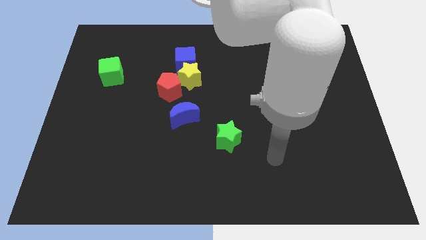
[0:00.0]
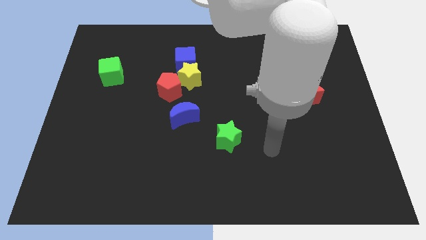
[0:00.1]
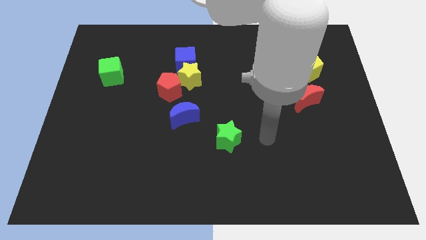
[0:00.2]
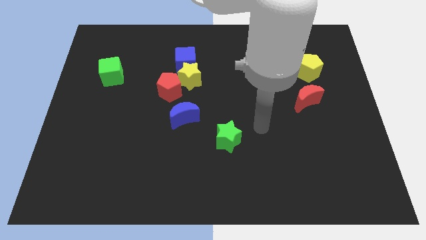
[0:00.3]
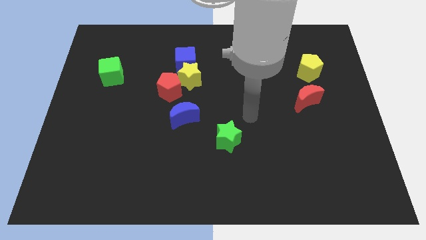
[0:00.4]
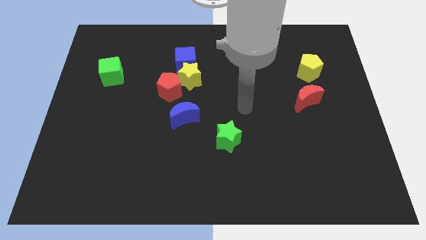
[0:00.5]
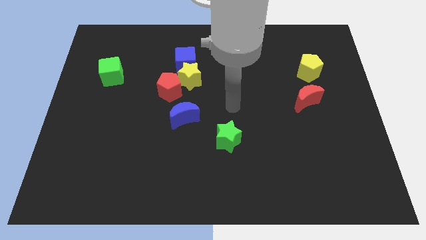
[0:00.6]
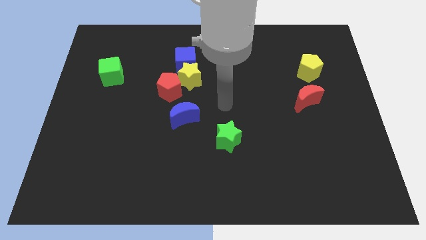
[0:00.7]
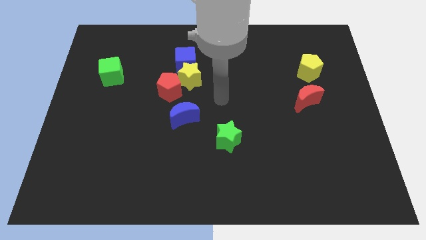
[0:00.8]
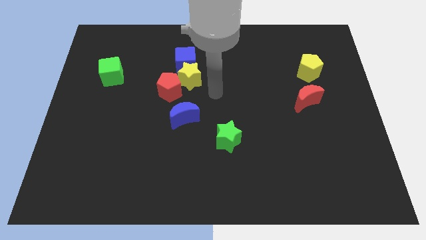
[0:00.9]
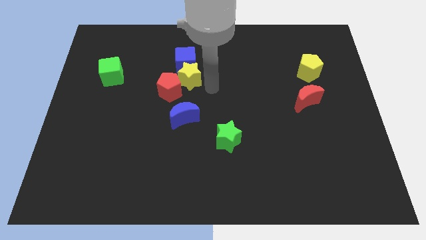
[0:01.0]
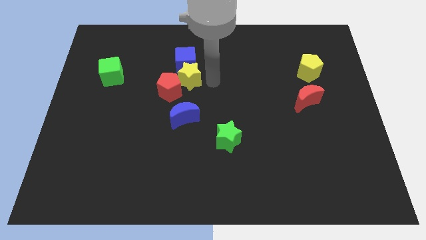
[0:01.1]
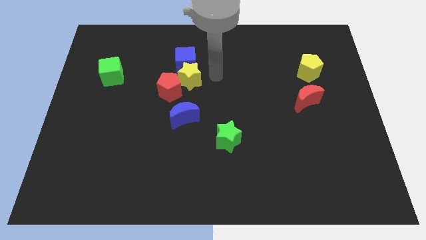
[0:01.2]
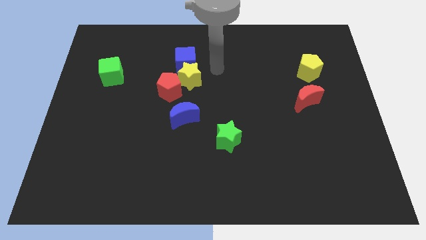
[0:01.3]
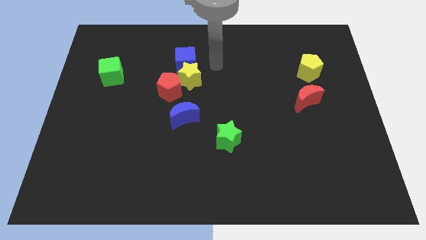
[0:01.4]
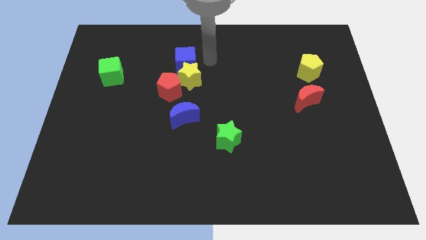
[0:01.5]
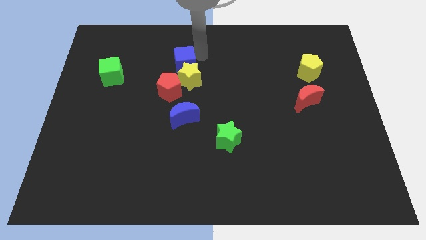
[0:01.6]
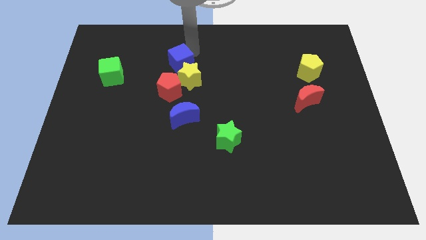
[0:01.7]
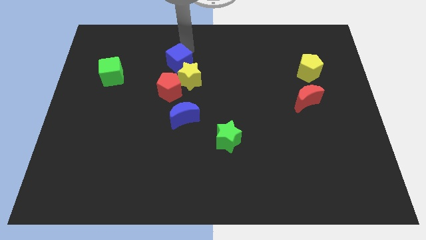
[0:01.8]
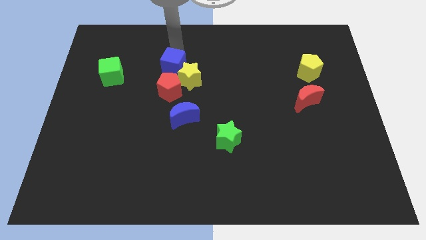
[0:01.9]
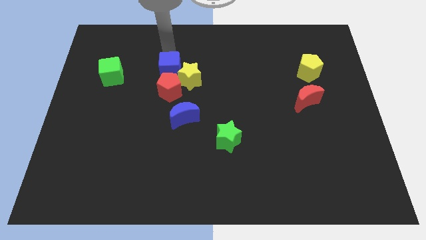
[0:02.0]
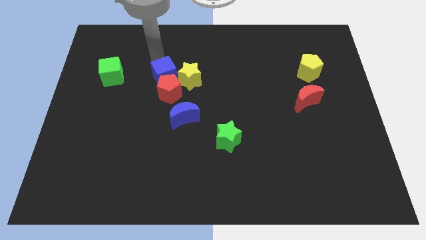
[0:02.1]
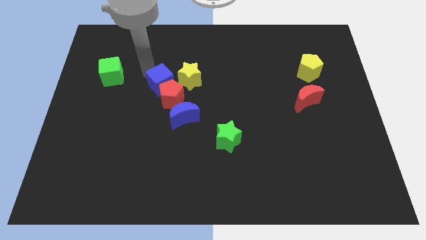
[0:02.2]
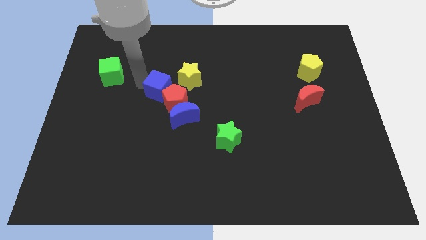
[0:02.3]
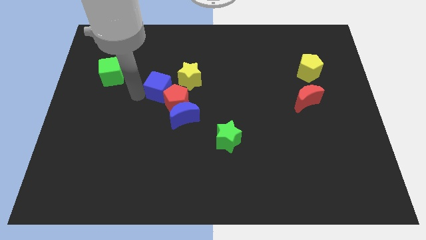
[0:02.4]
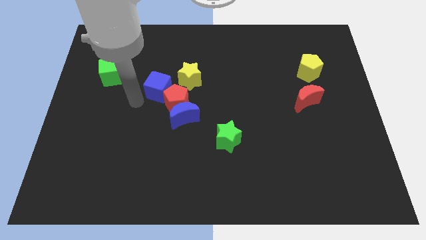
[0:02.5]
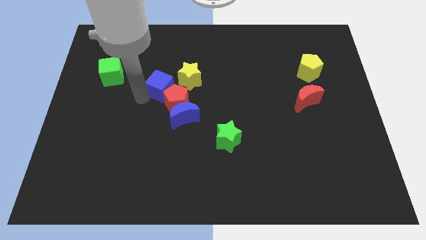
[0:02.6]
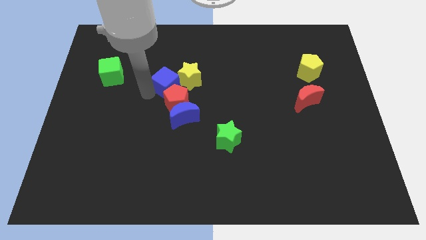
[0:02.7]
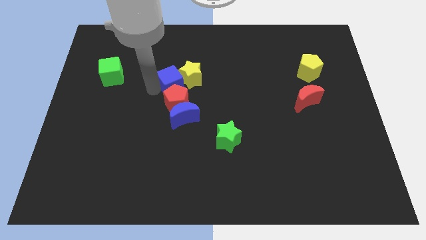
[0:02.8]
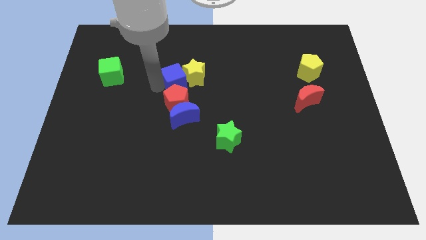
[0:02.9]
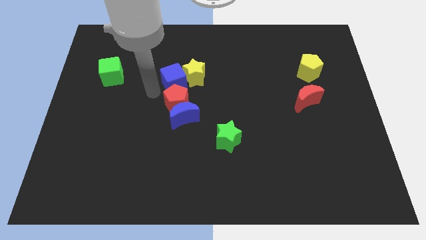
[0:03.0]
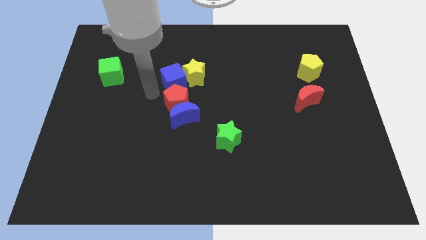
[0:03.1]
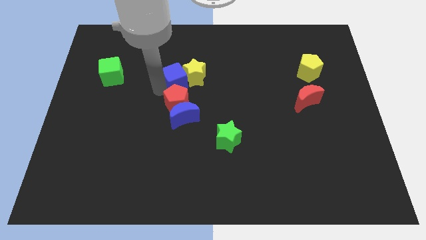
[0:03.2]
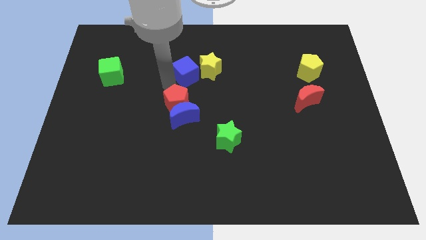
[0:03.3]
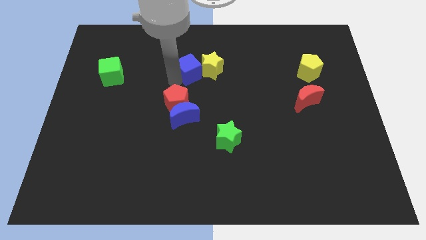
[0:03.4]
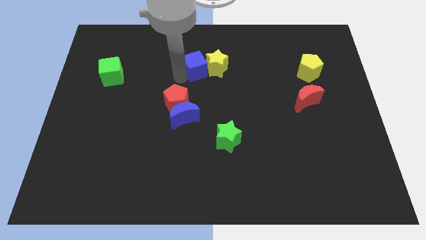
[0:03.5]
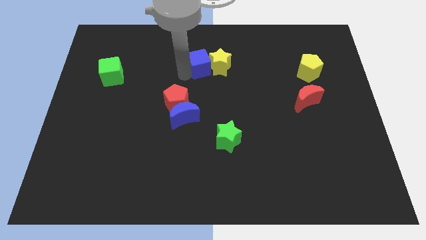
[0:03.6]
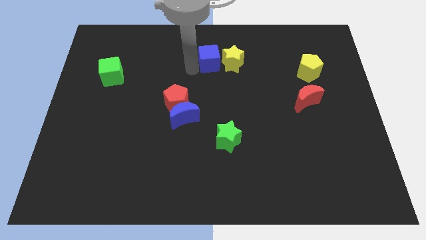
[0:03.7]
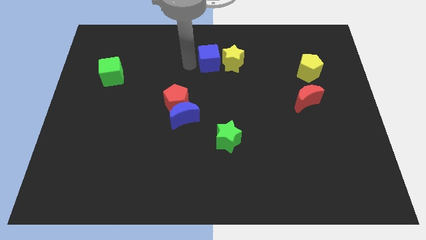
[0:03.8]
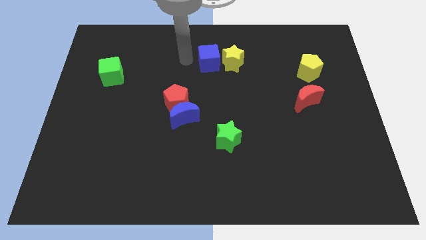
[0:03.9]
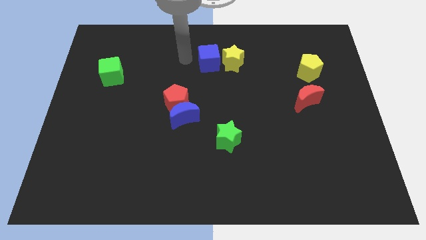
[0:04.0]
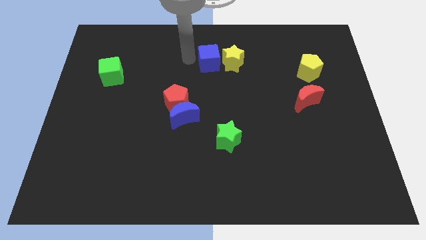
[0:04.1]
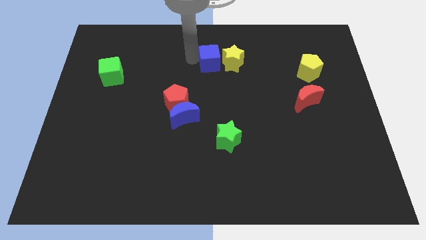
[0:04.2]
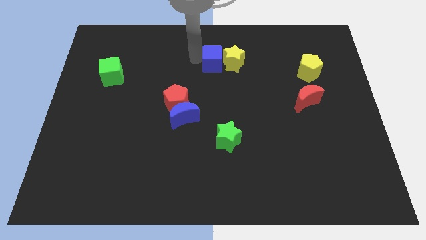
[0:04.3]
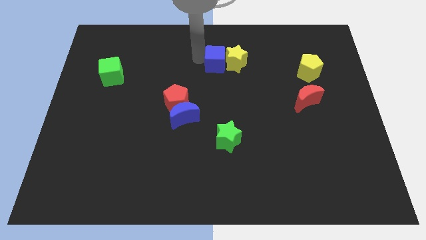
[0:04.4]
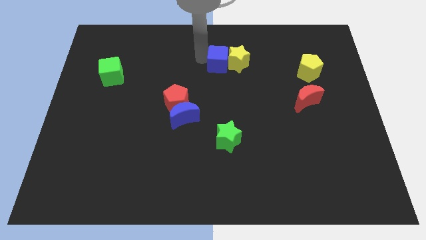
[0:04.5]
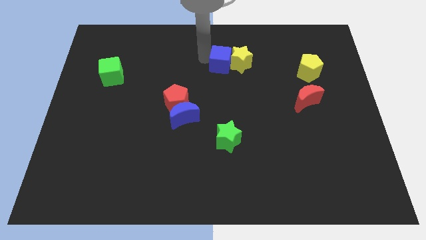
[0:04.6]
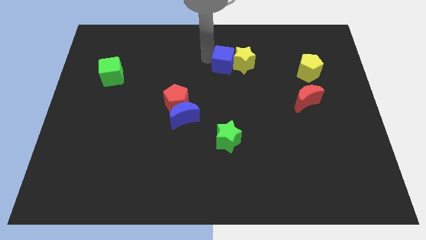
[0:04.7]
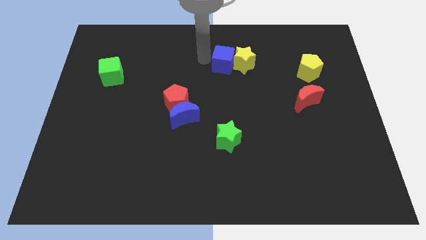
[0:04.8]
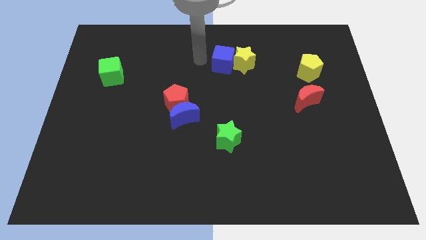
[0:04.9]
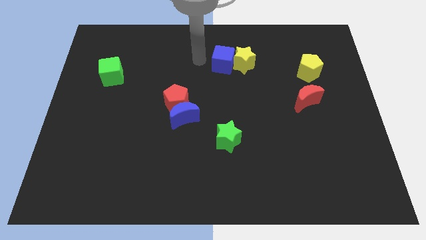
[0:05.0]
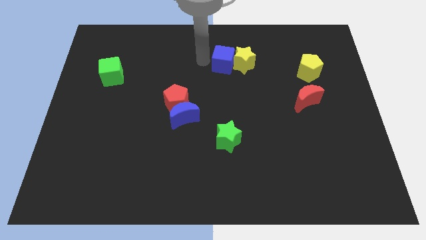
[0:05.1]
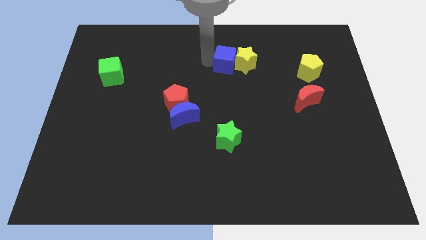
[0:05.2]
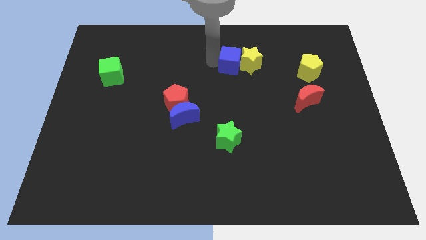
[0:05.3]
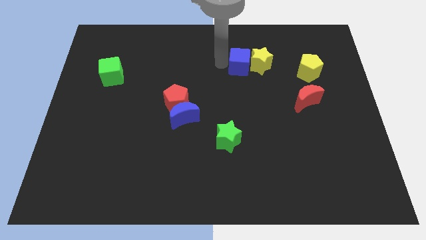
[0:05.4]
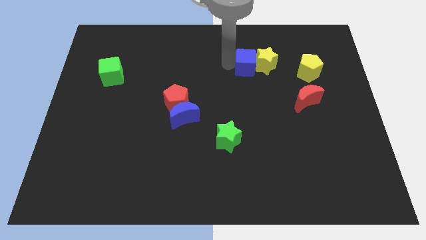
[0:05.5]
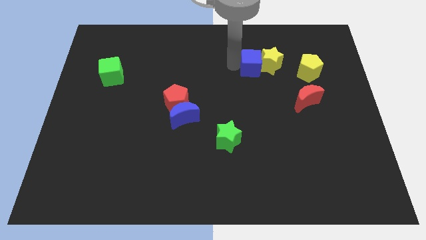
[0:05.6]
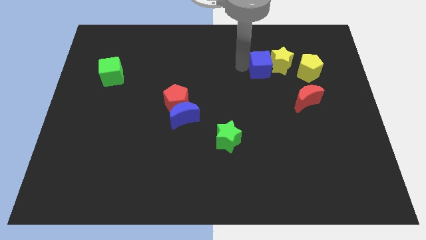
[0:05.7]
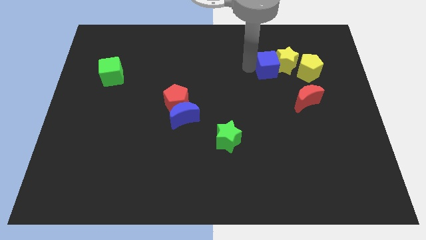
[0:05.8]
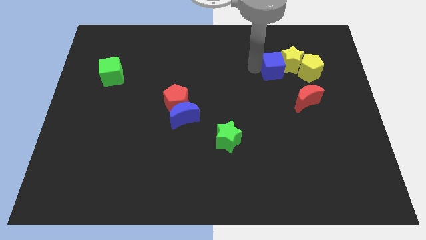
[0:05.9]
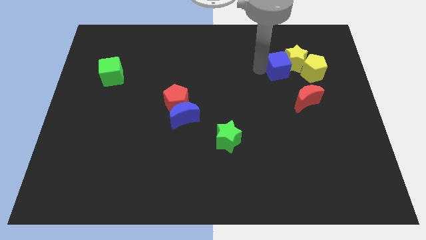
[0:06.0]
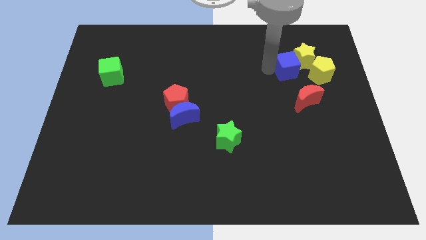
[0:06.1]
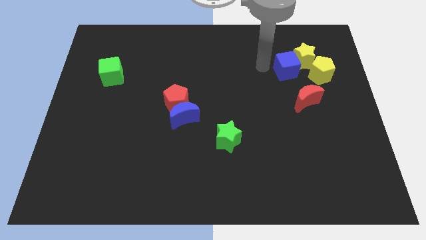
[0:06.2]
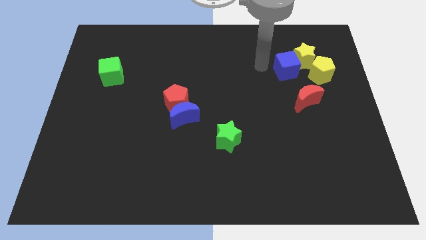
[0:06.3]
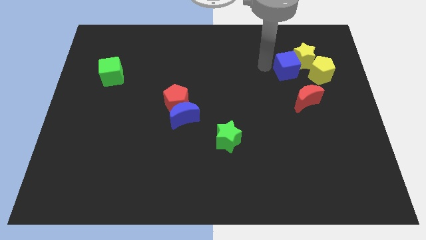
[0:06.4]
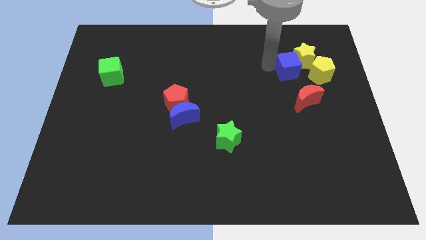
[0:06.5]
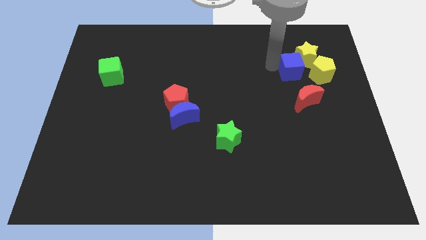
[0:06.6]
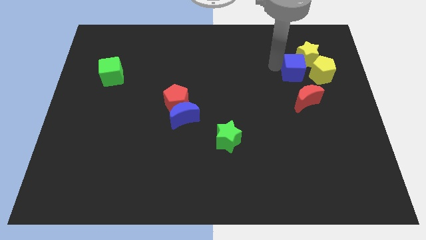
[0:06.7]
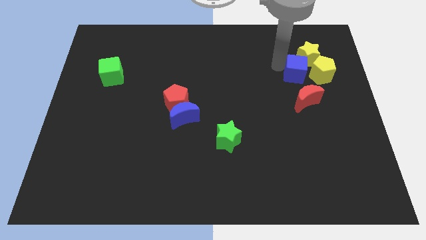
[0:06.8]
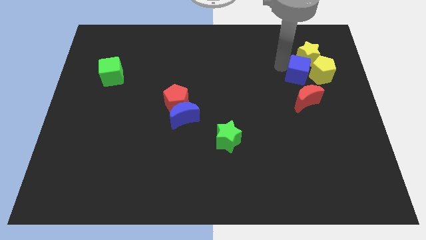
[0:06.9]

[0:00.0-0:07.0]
slide the blue cube next to the yellow pentagon
